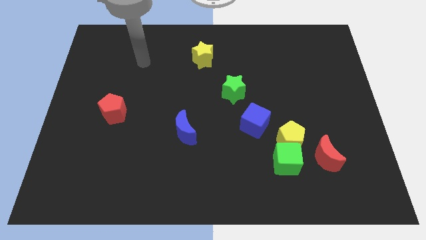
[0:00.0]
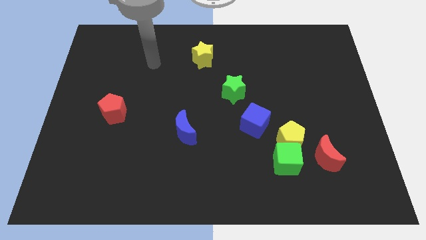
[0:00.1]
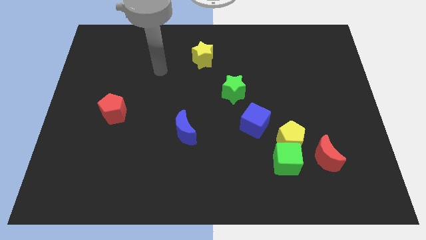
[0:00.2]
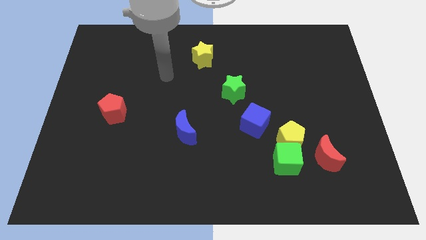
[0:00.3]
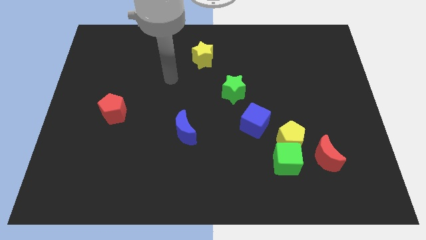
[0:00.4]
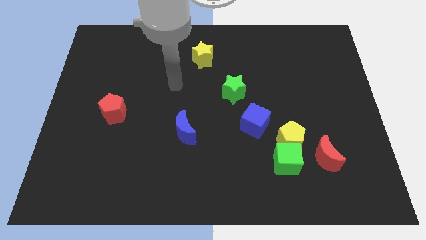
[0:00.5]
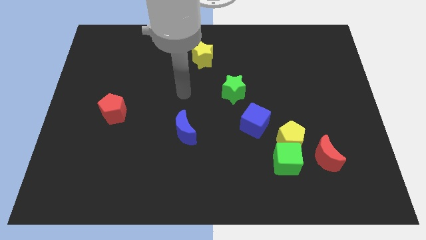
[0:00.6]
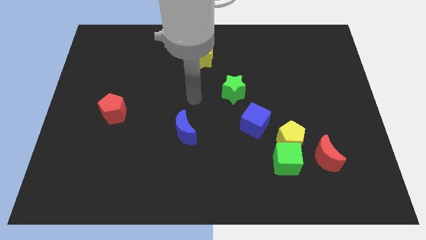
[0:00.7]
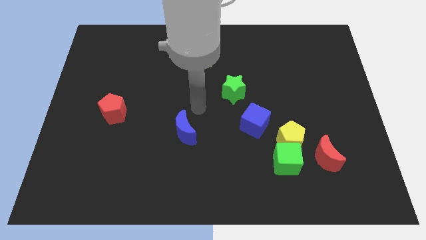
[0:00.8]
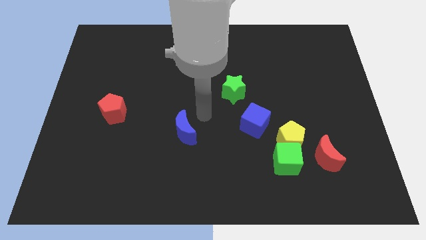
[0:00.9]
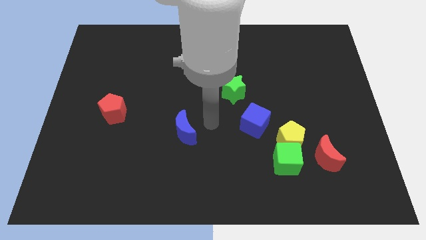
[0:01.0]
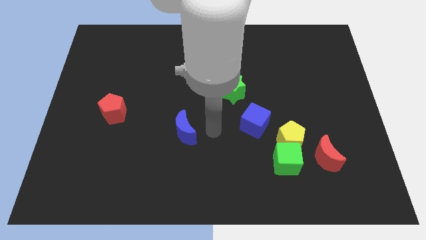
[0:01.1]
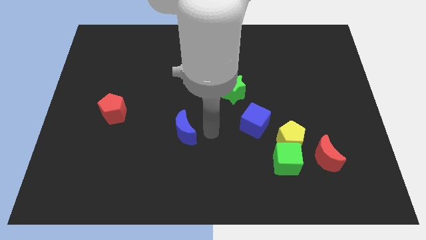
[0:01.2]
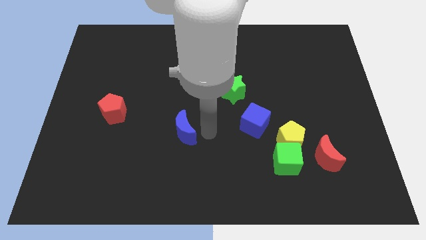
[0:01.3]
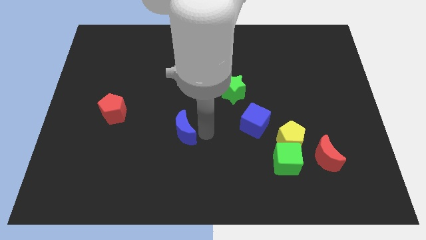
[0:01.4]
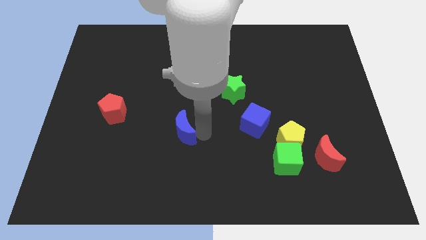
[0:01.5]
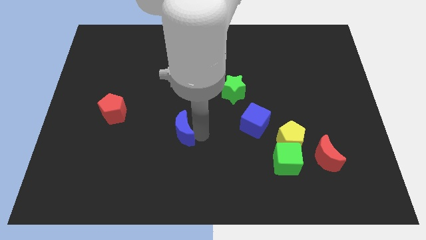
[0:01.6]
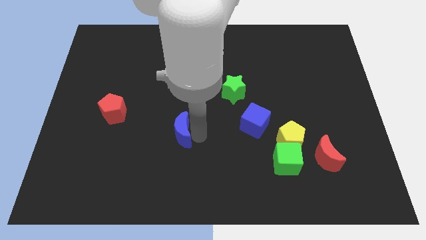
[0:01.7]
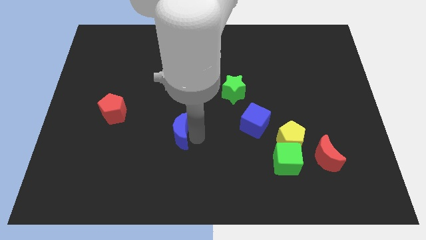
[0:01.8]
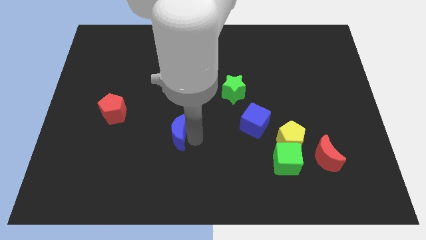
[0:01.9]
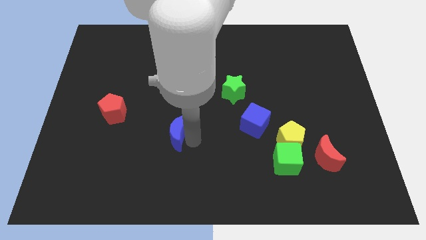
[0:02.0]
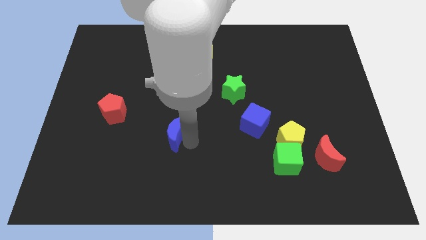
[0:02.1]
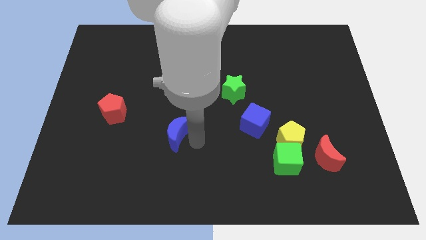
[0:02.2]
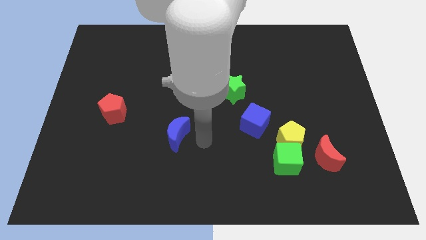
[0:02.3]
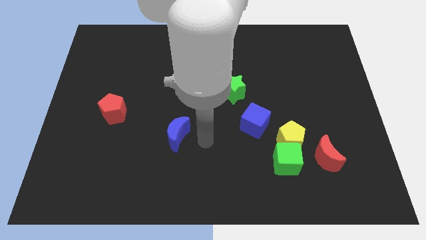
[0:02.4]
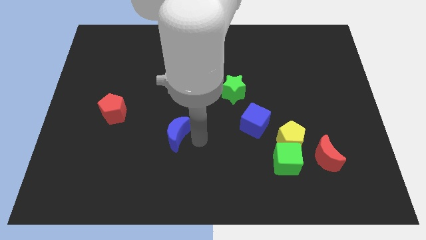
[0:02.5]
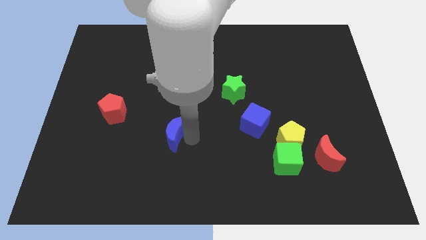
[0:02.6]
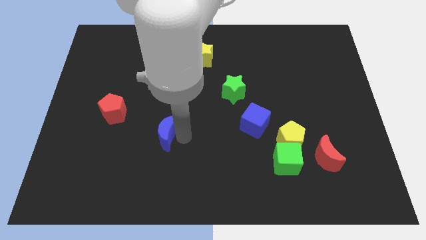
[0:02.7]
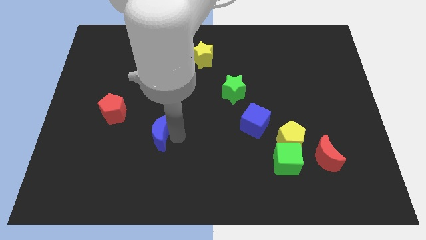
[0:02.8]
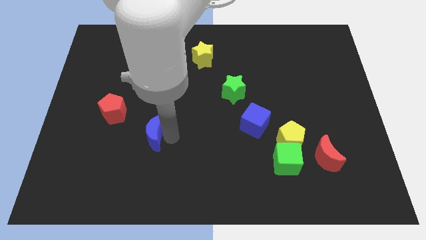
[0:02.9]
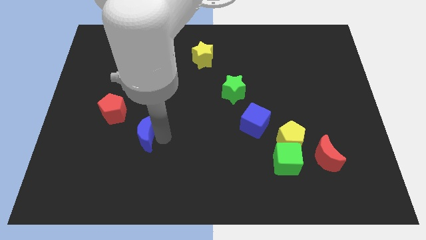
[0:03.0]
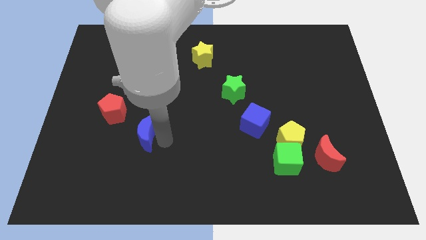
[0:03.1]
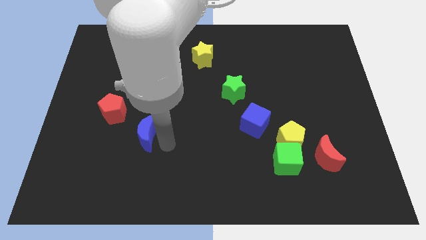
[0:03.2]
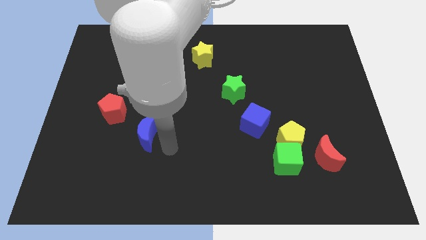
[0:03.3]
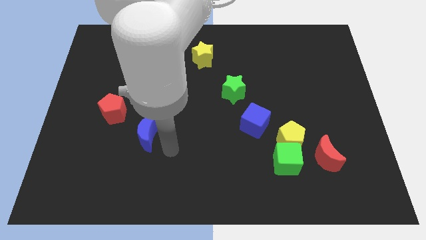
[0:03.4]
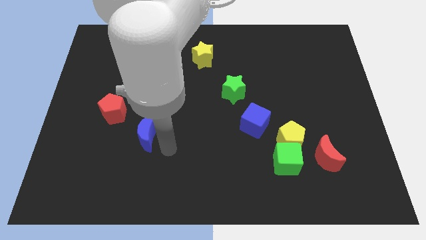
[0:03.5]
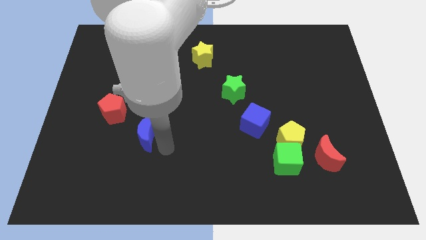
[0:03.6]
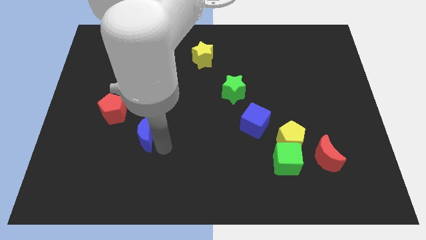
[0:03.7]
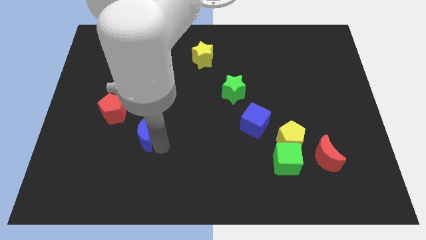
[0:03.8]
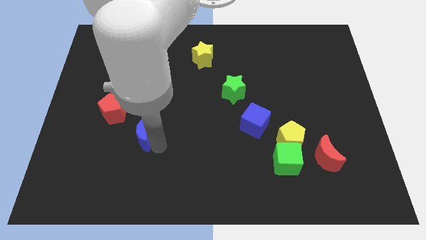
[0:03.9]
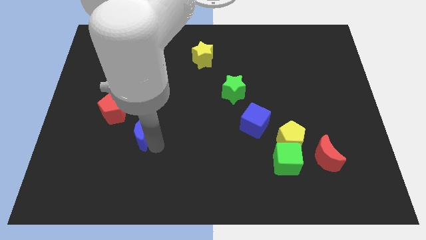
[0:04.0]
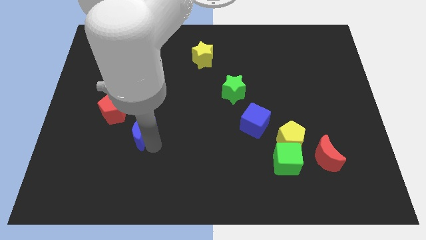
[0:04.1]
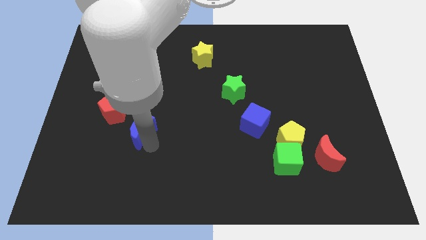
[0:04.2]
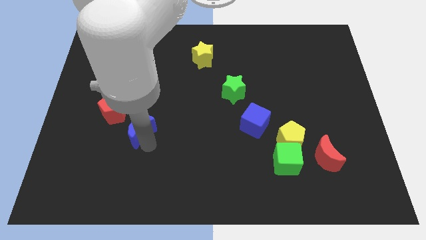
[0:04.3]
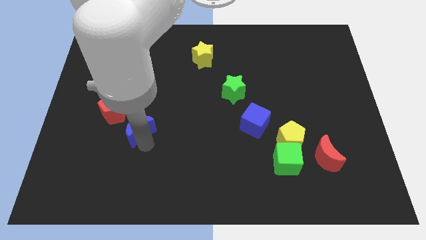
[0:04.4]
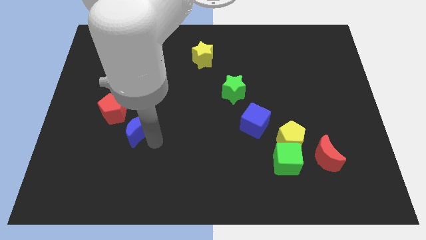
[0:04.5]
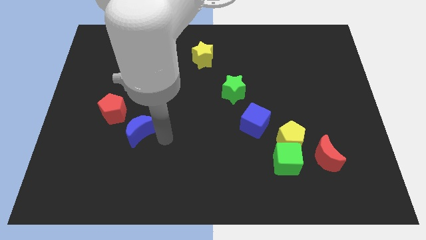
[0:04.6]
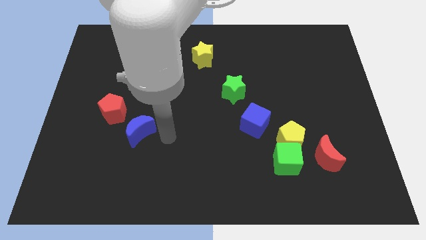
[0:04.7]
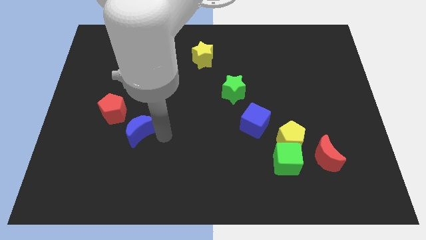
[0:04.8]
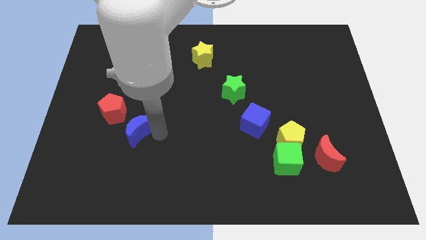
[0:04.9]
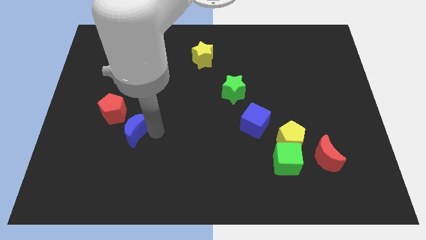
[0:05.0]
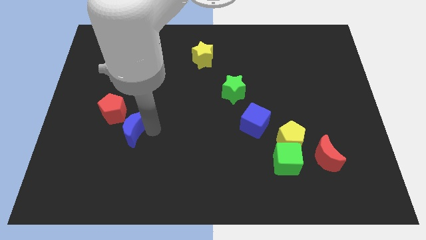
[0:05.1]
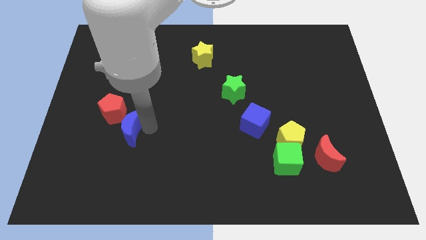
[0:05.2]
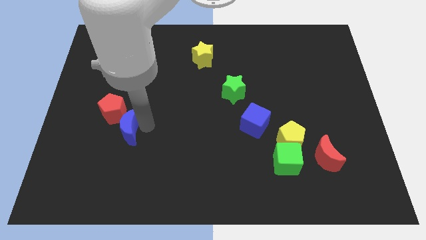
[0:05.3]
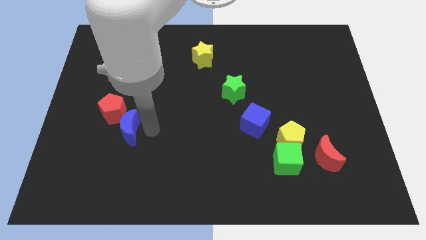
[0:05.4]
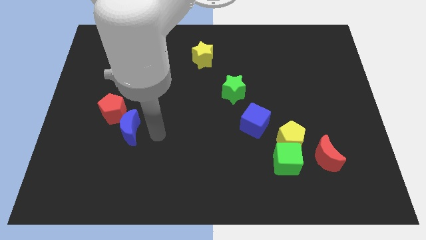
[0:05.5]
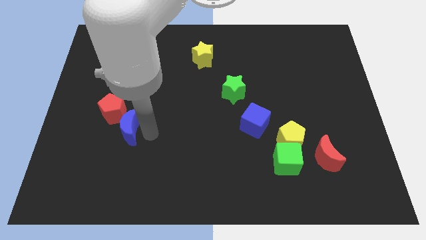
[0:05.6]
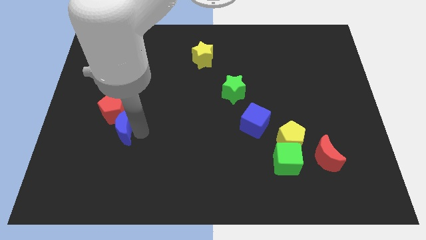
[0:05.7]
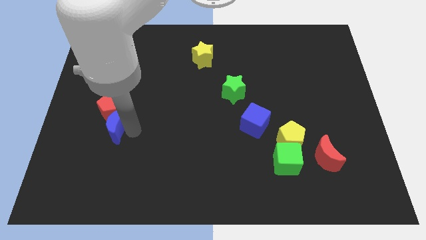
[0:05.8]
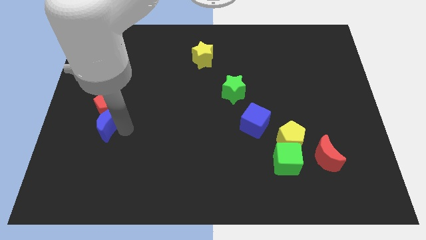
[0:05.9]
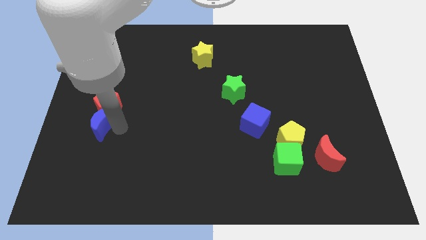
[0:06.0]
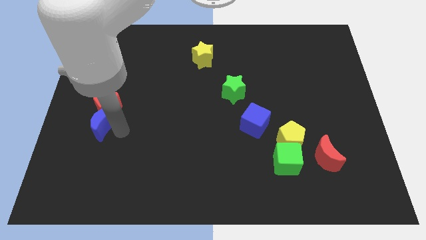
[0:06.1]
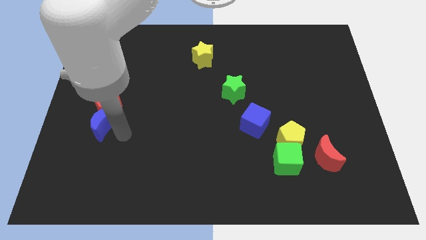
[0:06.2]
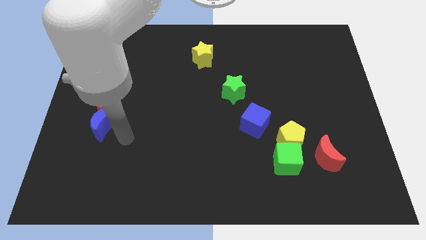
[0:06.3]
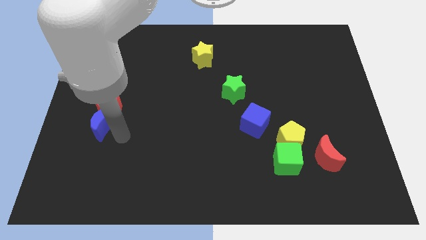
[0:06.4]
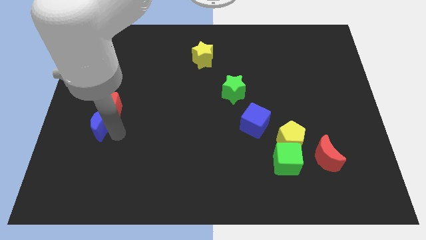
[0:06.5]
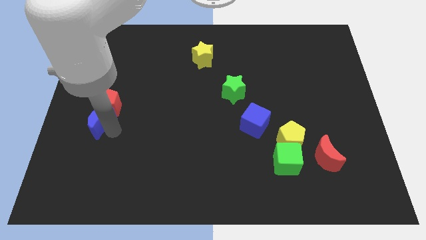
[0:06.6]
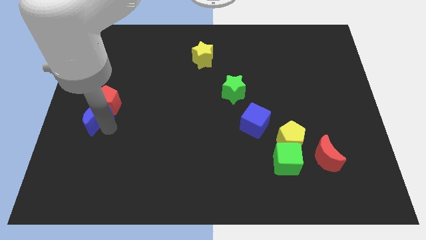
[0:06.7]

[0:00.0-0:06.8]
put the blue moon to the center left
